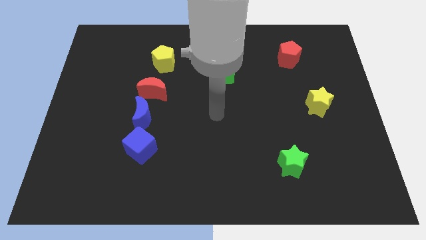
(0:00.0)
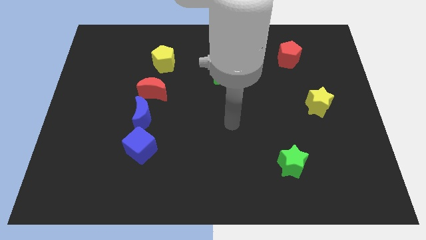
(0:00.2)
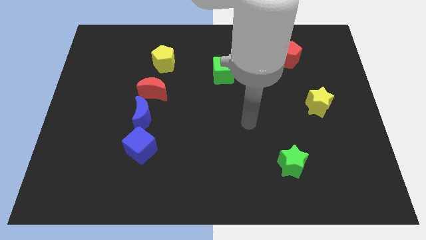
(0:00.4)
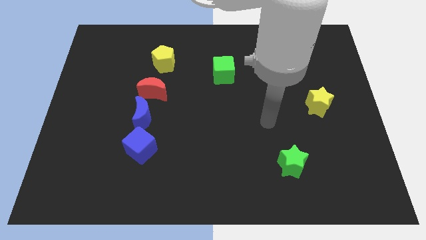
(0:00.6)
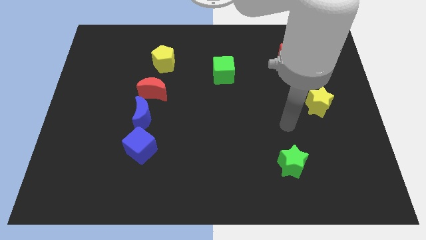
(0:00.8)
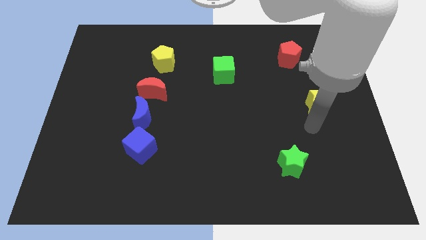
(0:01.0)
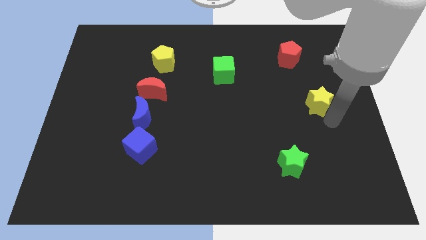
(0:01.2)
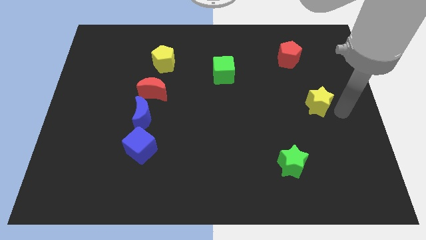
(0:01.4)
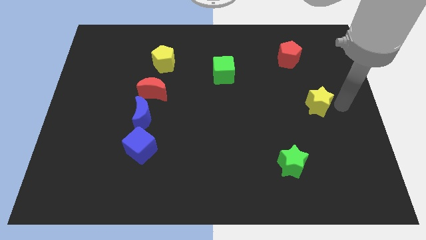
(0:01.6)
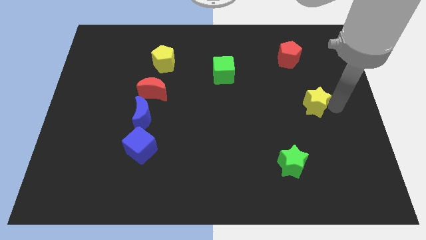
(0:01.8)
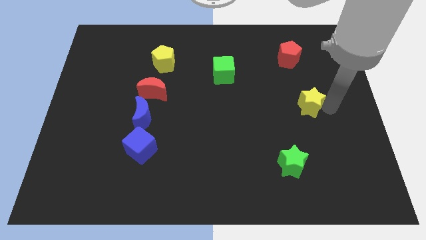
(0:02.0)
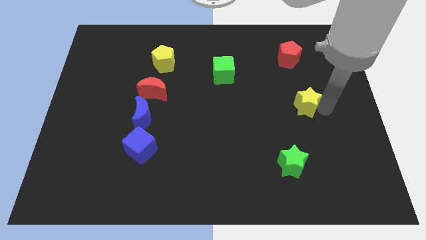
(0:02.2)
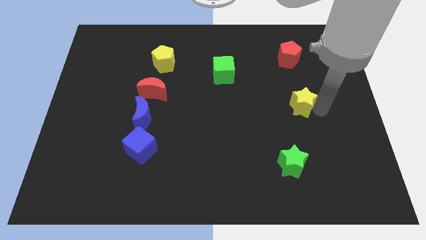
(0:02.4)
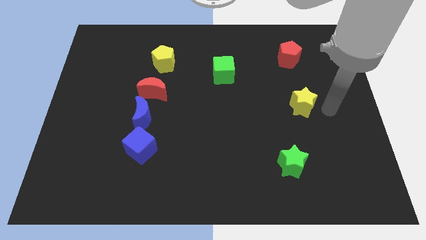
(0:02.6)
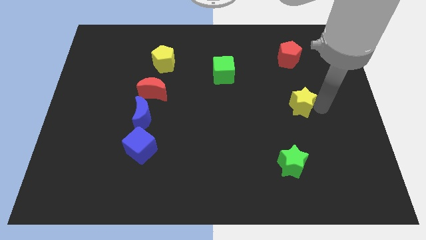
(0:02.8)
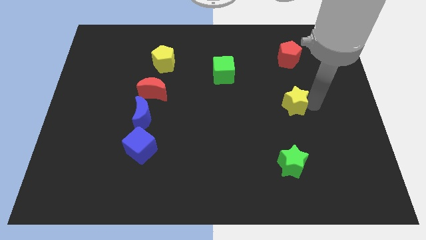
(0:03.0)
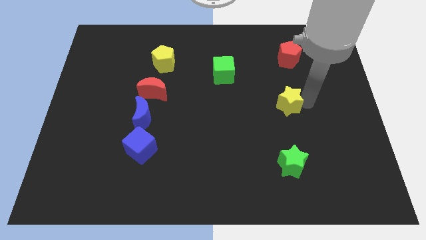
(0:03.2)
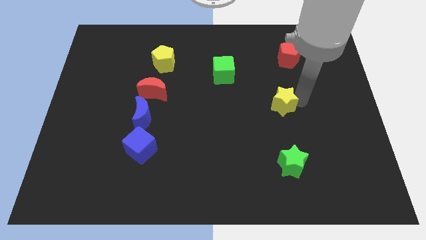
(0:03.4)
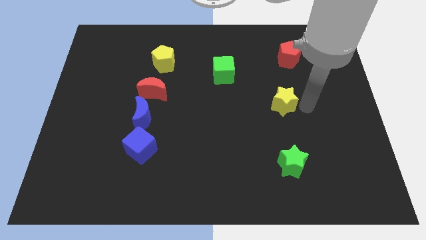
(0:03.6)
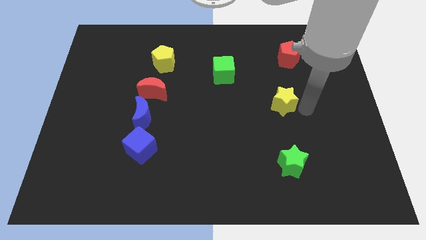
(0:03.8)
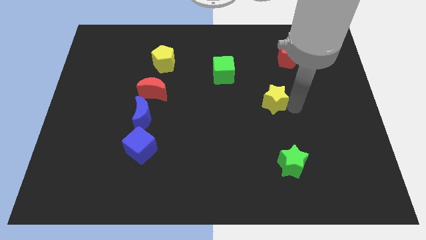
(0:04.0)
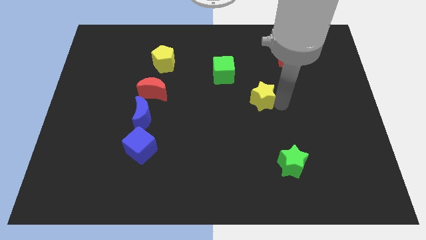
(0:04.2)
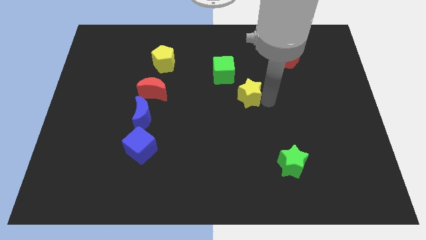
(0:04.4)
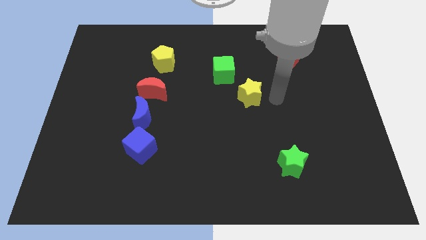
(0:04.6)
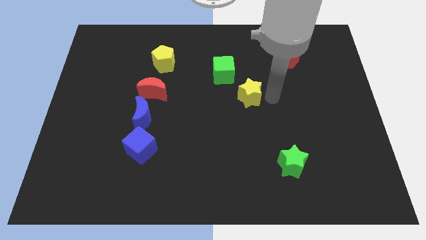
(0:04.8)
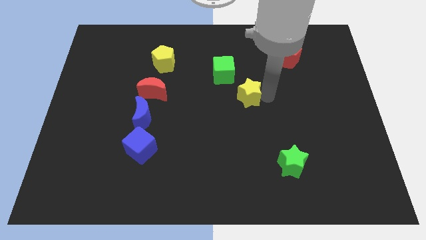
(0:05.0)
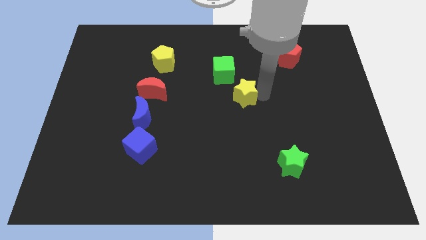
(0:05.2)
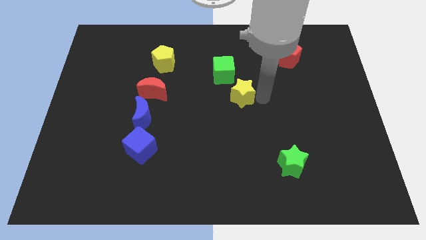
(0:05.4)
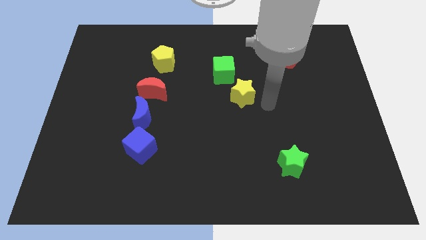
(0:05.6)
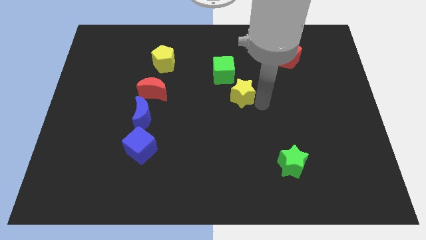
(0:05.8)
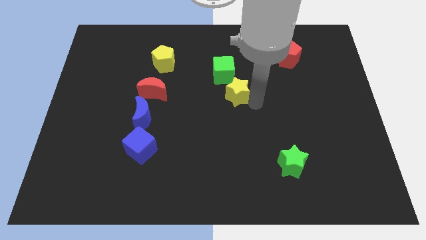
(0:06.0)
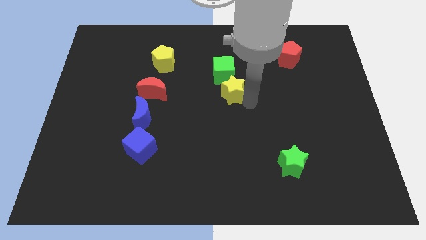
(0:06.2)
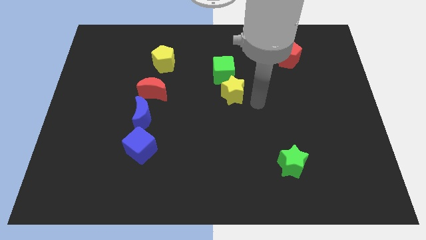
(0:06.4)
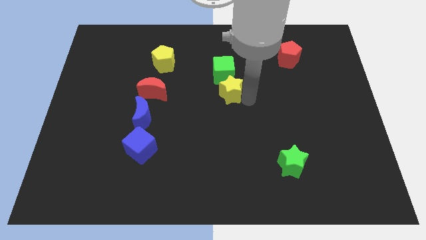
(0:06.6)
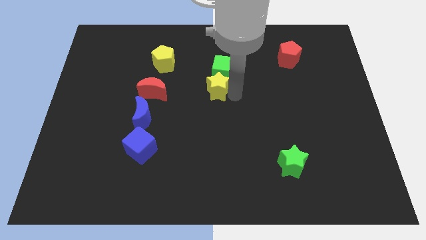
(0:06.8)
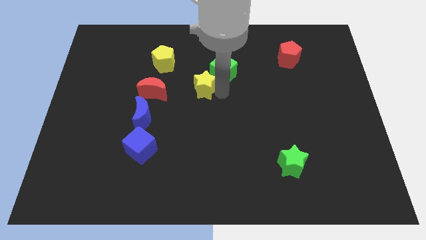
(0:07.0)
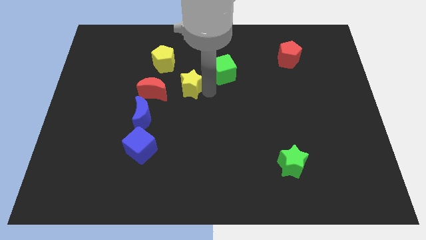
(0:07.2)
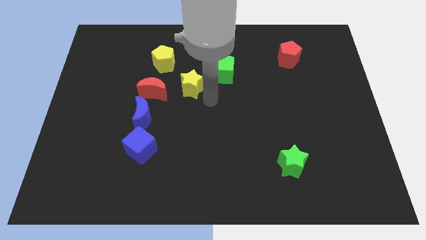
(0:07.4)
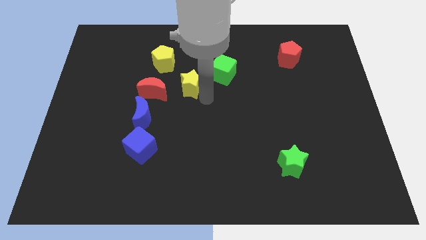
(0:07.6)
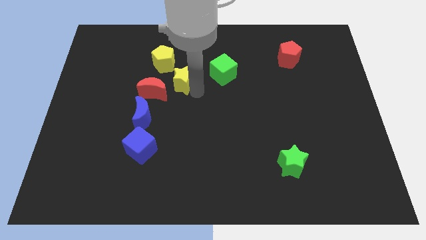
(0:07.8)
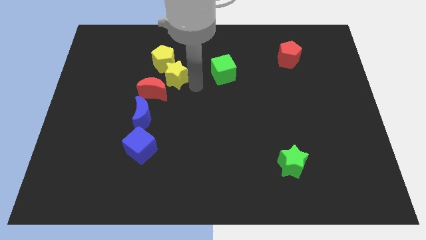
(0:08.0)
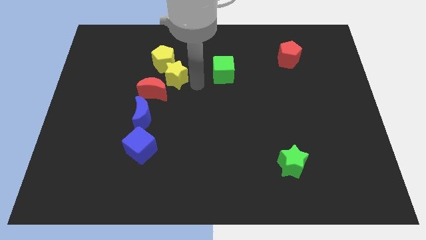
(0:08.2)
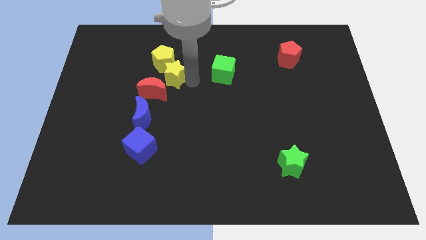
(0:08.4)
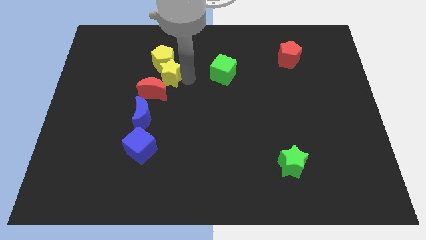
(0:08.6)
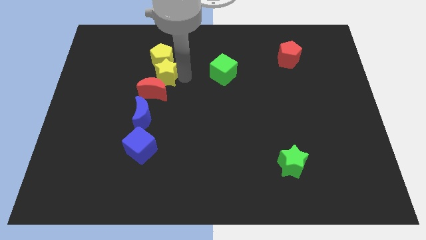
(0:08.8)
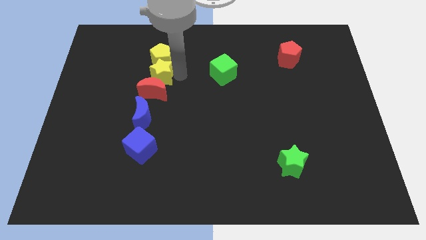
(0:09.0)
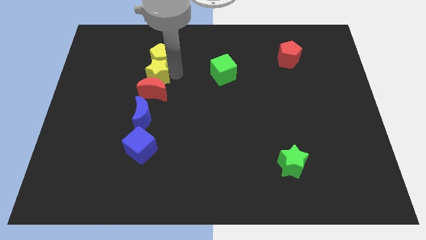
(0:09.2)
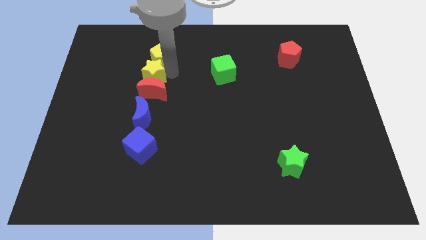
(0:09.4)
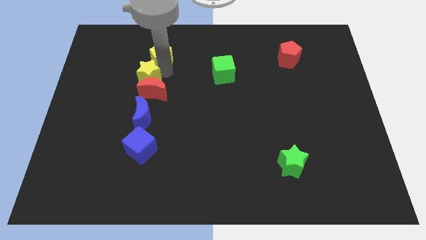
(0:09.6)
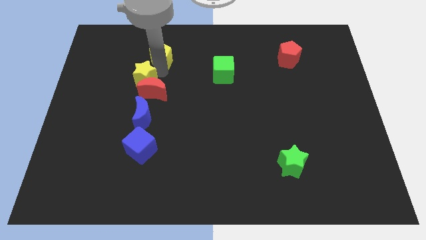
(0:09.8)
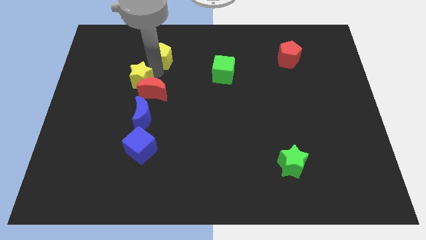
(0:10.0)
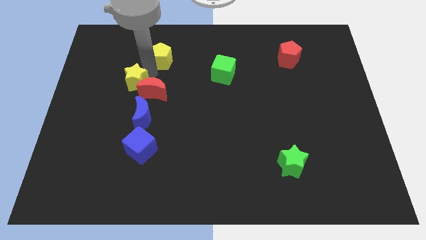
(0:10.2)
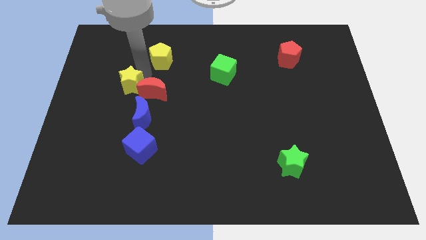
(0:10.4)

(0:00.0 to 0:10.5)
put the yellow star to the top left side of the blue moon
